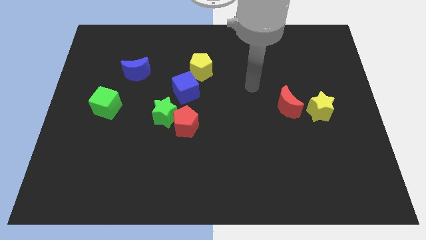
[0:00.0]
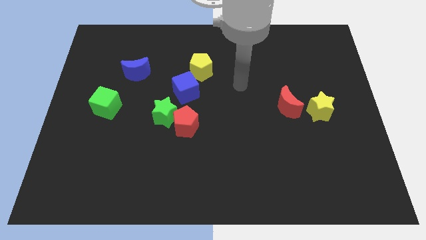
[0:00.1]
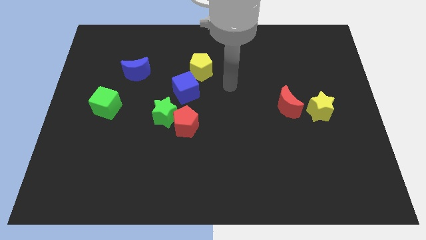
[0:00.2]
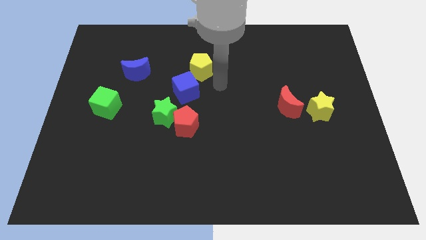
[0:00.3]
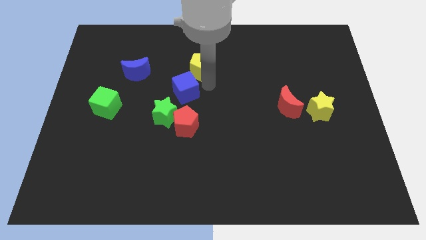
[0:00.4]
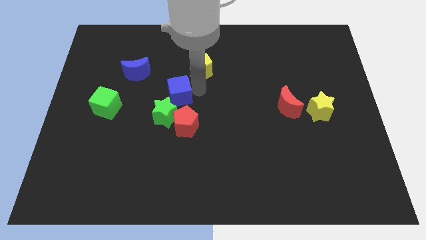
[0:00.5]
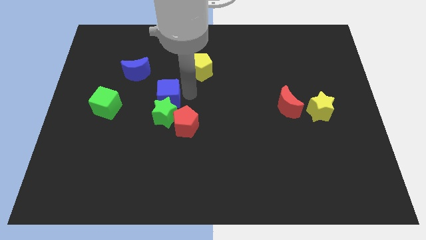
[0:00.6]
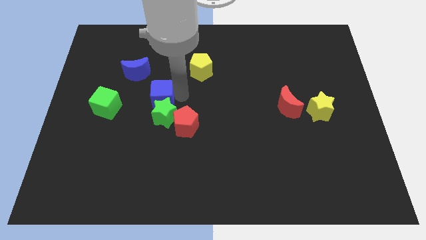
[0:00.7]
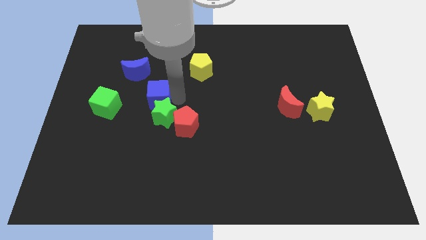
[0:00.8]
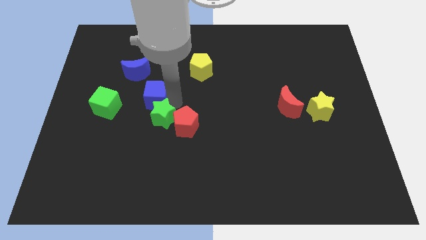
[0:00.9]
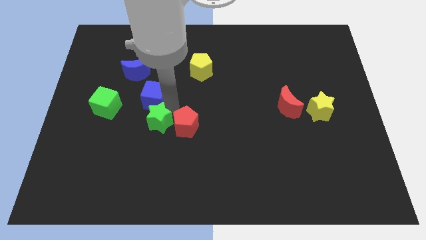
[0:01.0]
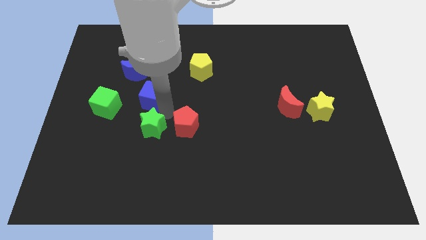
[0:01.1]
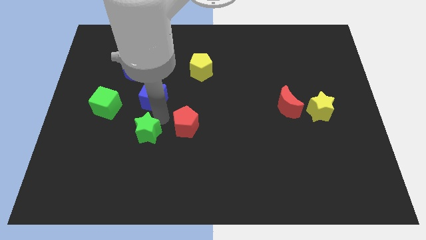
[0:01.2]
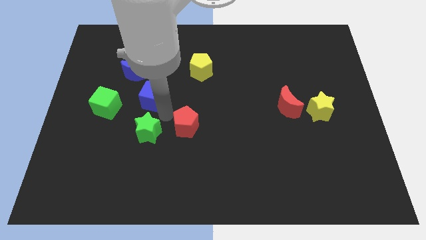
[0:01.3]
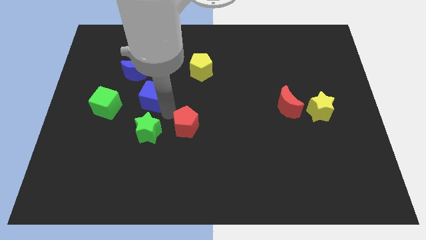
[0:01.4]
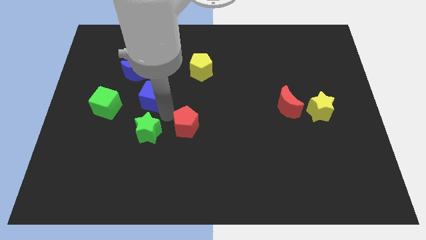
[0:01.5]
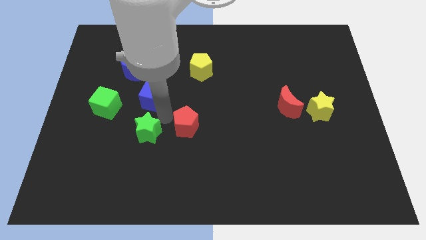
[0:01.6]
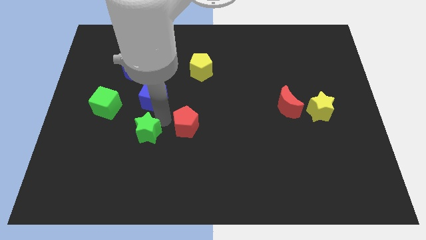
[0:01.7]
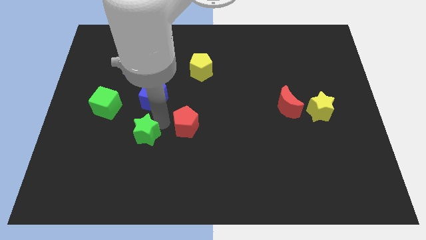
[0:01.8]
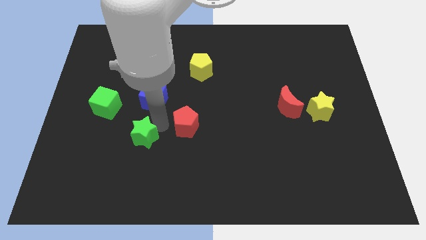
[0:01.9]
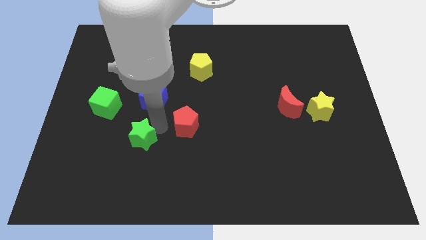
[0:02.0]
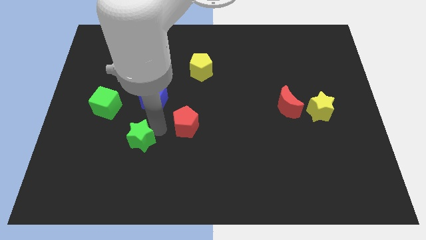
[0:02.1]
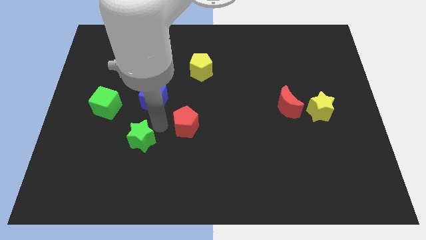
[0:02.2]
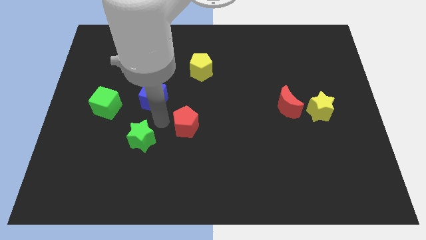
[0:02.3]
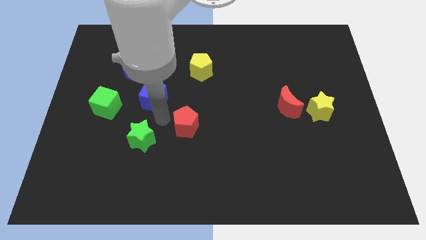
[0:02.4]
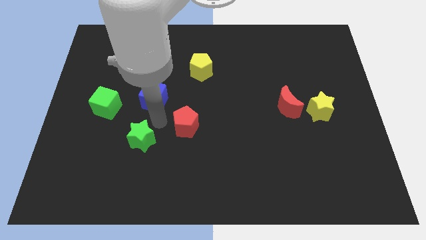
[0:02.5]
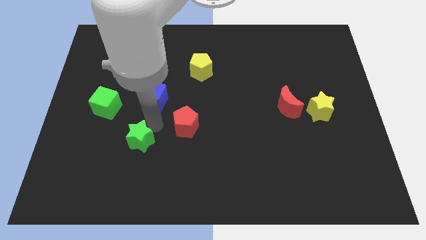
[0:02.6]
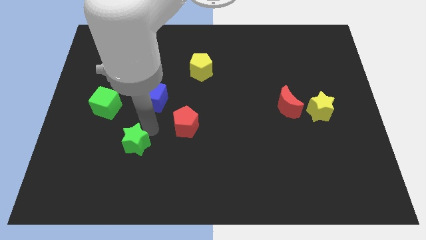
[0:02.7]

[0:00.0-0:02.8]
pull the green star apart from the red pentagon and blue cube

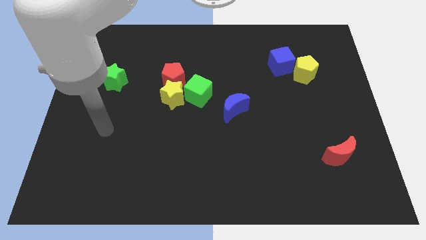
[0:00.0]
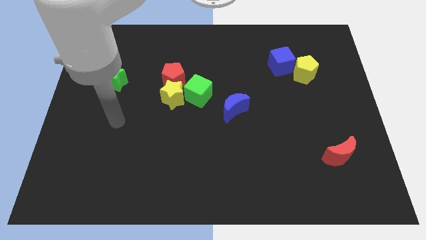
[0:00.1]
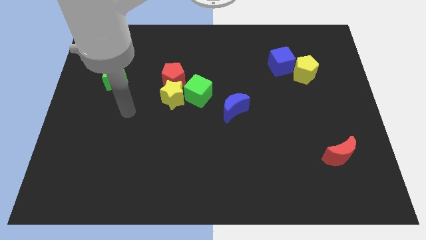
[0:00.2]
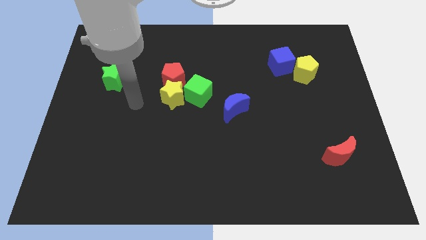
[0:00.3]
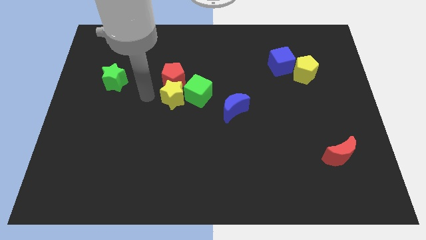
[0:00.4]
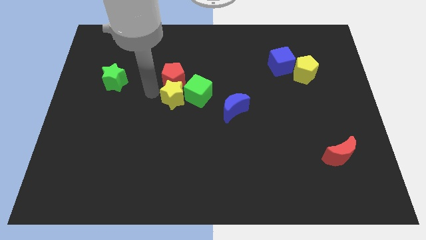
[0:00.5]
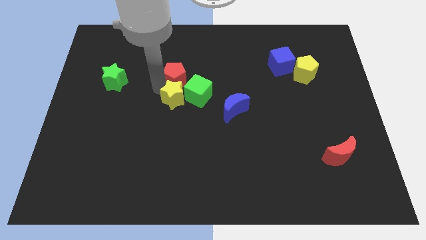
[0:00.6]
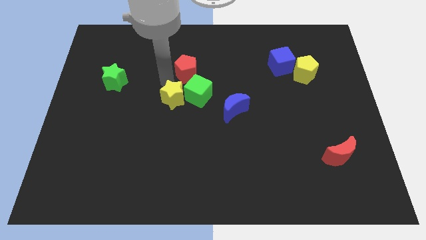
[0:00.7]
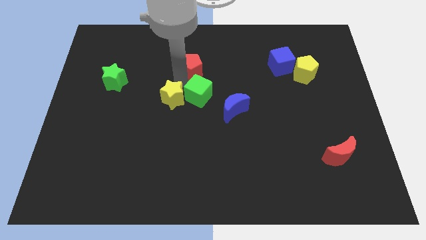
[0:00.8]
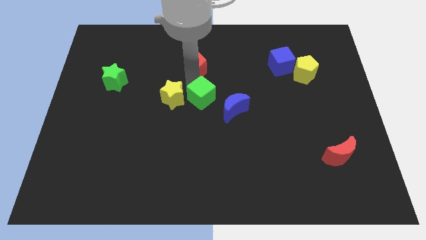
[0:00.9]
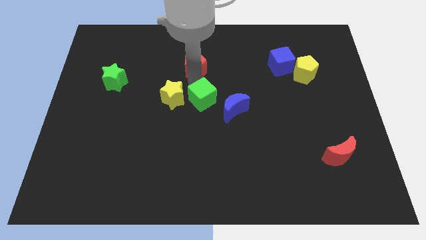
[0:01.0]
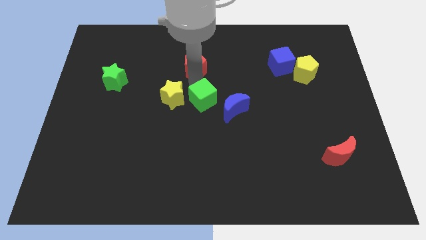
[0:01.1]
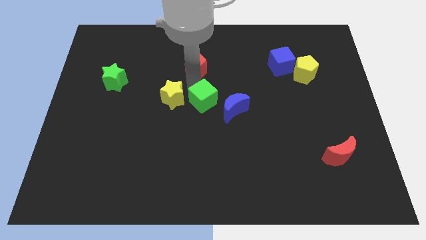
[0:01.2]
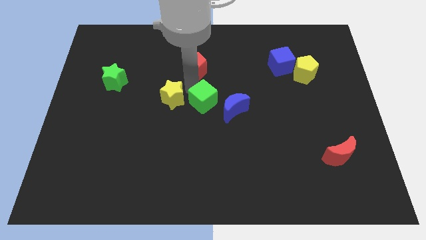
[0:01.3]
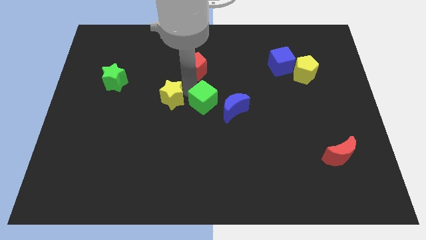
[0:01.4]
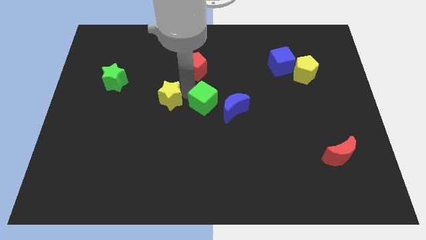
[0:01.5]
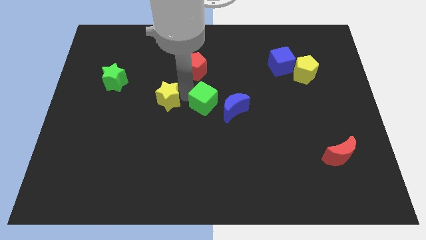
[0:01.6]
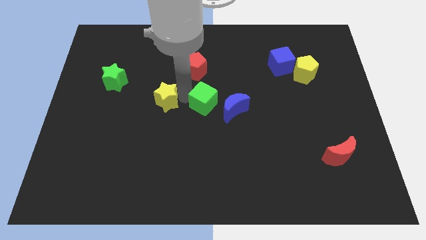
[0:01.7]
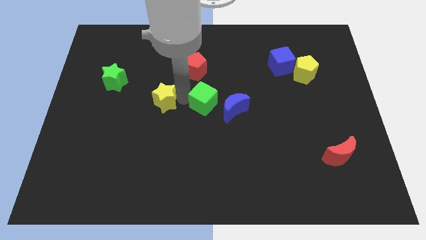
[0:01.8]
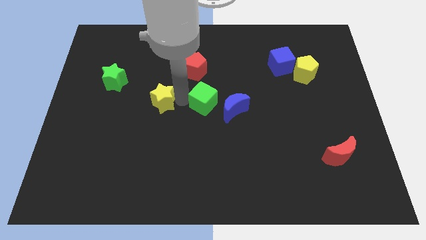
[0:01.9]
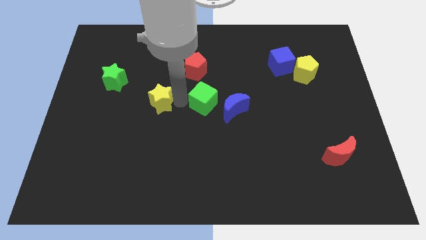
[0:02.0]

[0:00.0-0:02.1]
move the yellow star away from the green cube and red pentagon

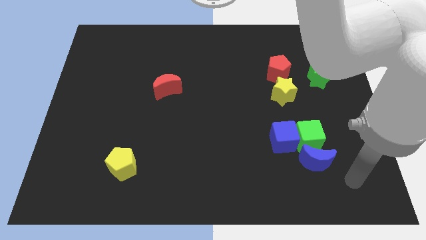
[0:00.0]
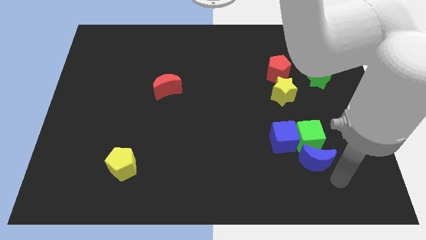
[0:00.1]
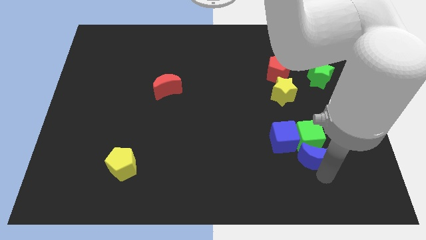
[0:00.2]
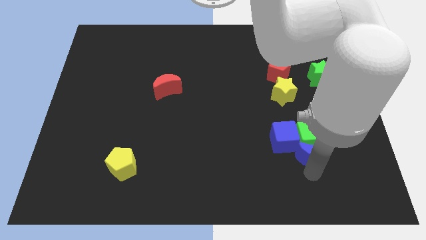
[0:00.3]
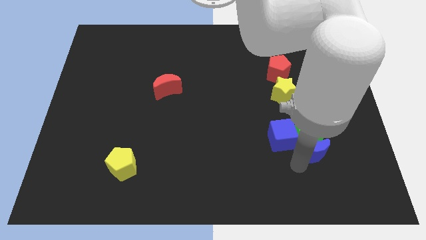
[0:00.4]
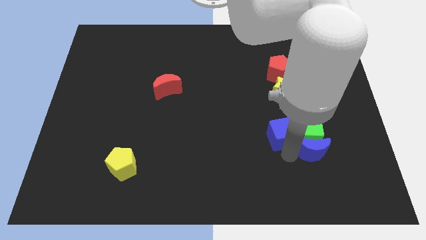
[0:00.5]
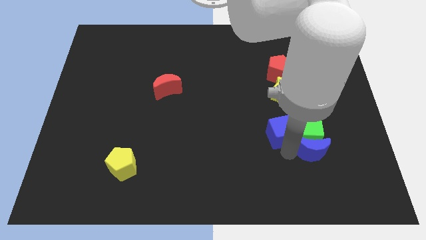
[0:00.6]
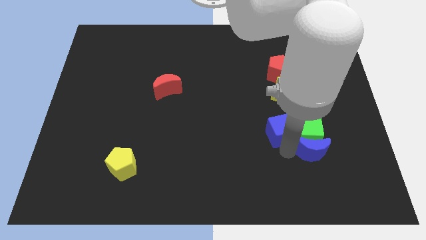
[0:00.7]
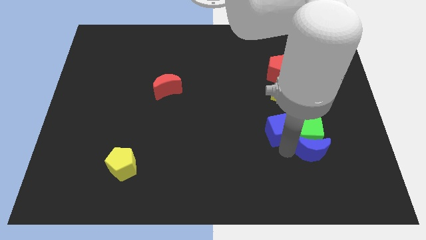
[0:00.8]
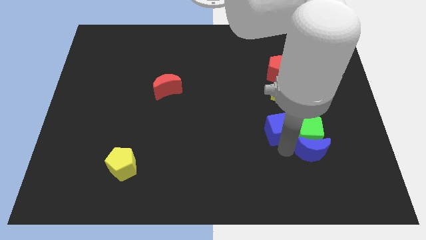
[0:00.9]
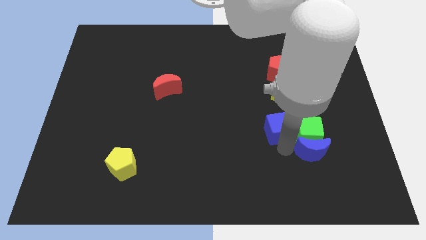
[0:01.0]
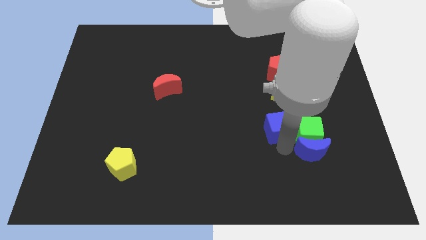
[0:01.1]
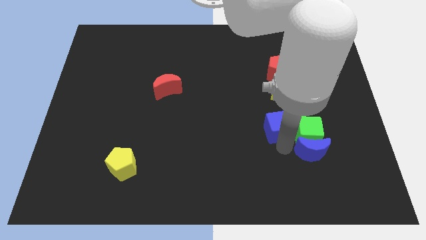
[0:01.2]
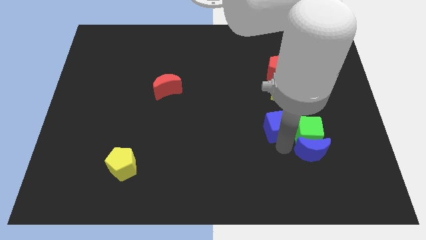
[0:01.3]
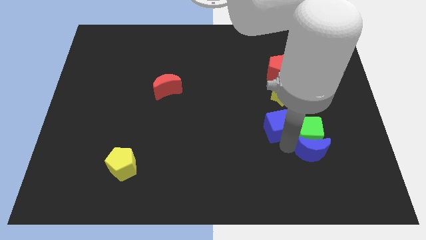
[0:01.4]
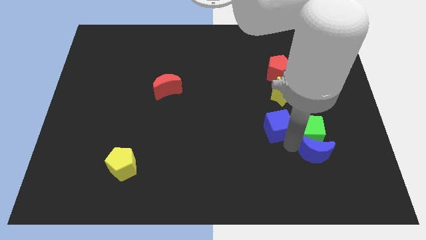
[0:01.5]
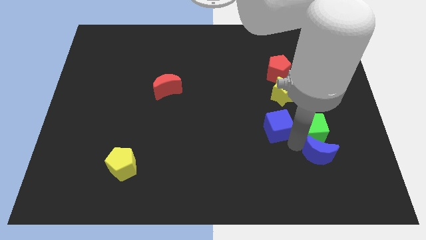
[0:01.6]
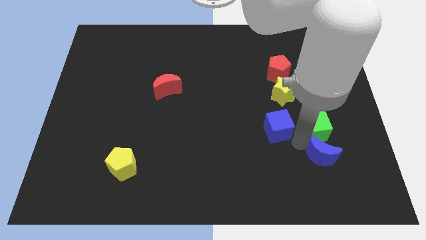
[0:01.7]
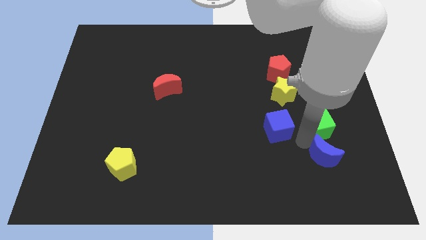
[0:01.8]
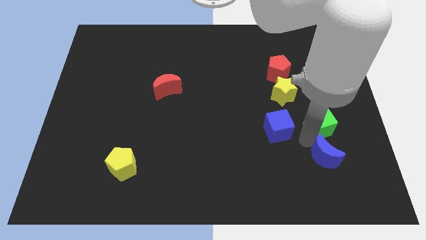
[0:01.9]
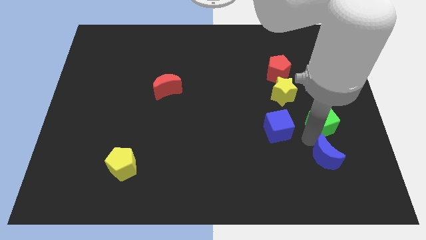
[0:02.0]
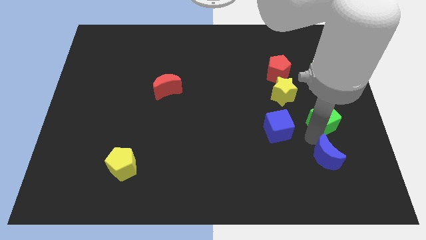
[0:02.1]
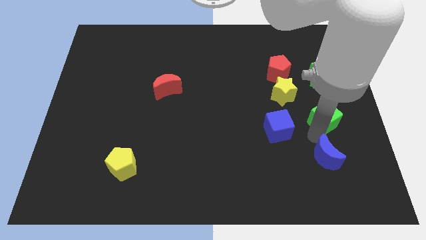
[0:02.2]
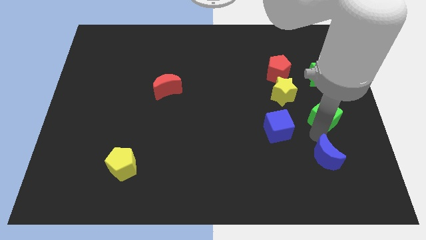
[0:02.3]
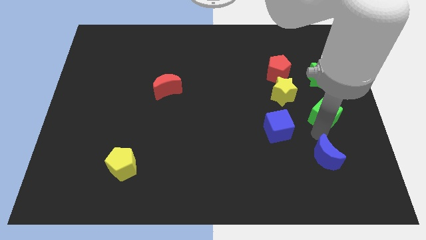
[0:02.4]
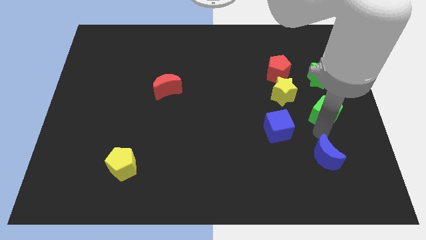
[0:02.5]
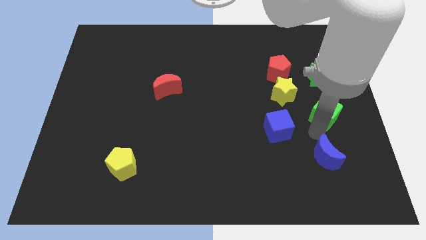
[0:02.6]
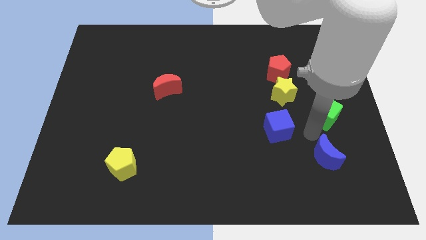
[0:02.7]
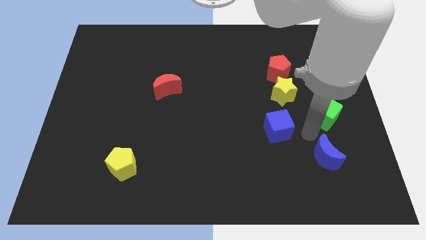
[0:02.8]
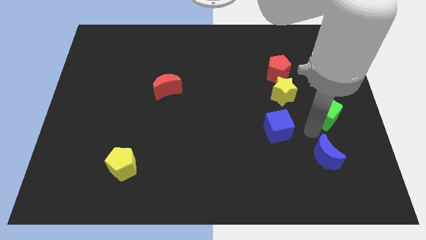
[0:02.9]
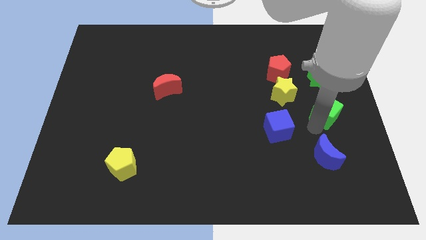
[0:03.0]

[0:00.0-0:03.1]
move the green cube away from the blue cube and blue moon

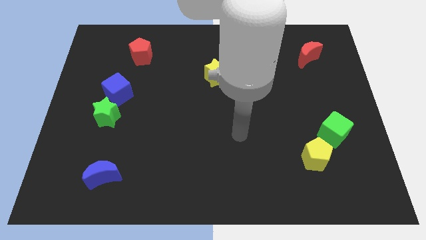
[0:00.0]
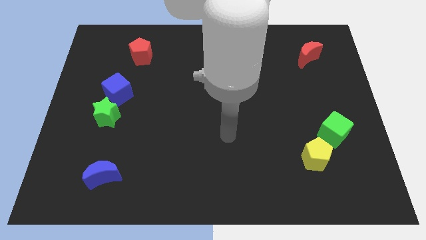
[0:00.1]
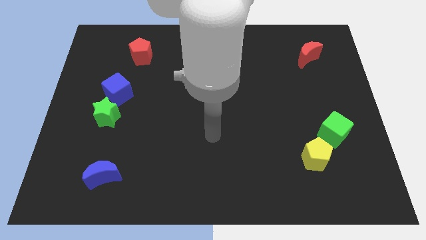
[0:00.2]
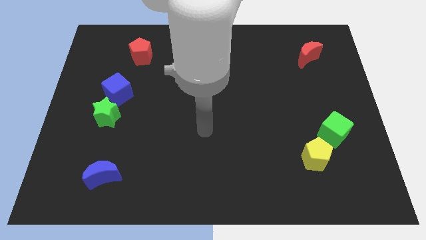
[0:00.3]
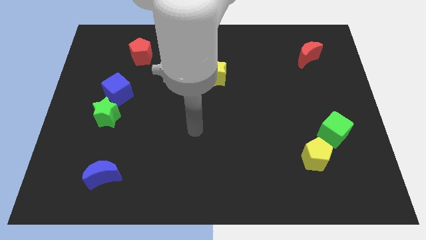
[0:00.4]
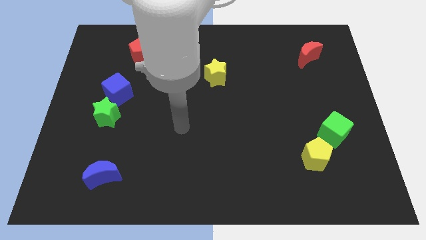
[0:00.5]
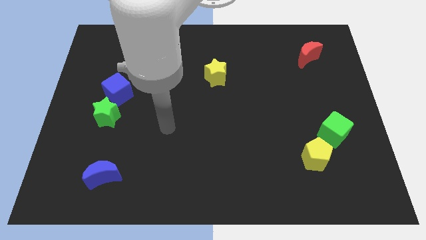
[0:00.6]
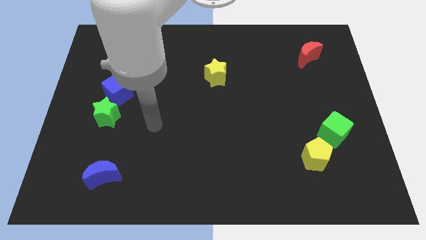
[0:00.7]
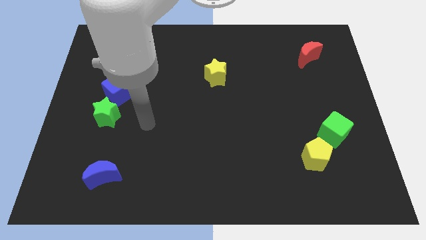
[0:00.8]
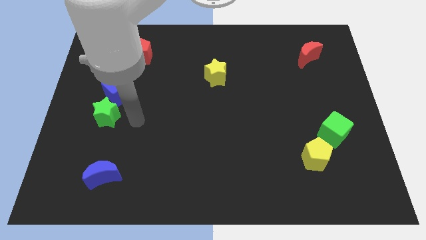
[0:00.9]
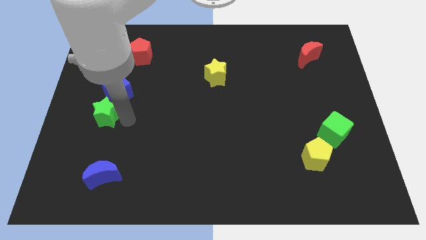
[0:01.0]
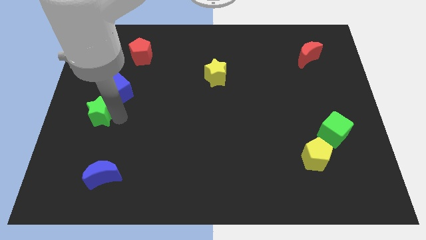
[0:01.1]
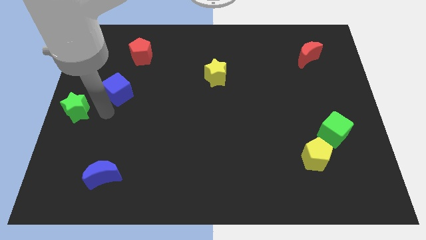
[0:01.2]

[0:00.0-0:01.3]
move the blue cube away from the green star

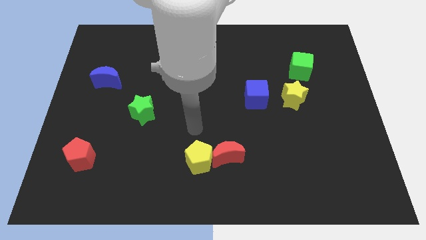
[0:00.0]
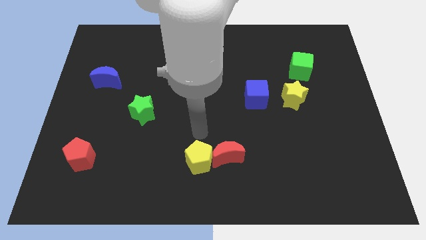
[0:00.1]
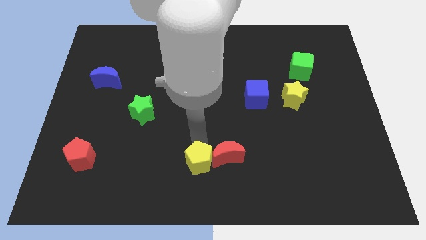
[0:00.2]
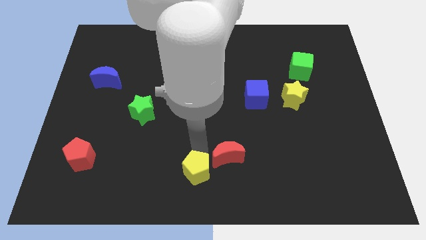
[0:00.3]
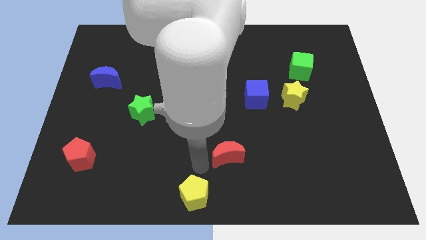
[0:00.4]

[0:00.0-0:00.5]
pull the red moon apart from the yellow pentagon
